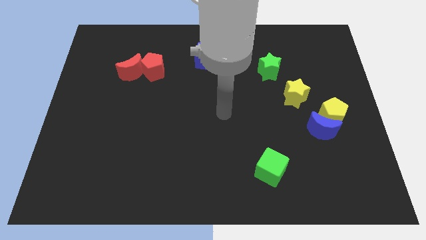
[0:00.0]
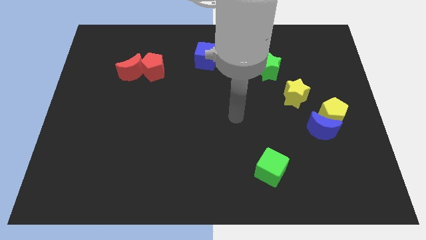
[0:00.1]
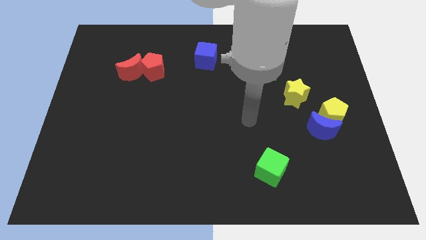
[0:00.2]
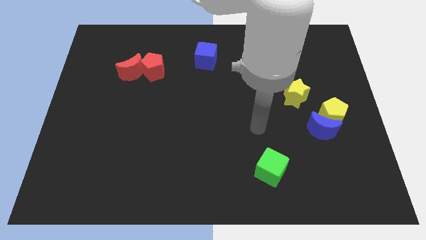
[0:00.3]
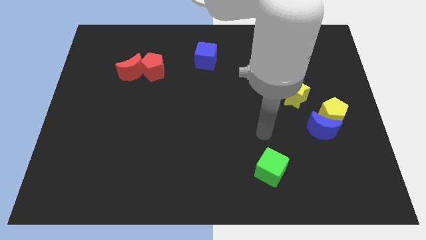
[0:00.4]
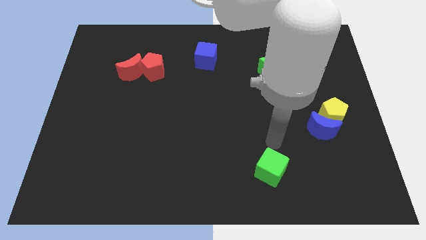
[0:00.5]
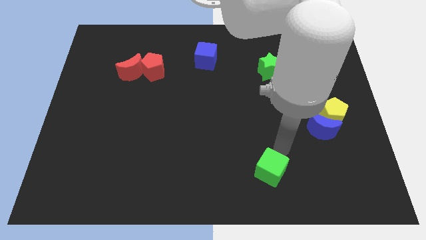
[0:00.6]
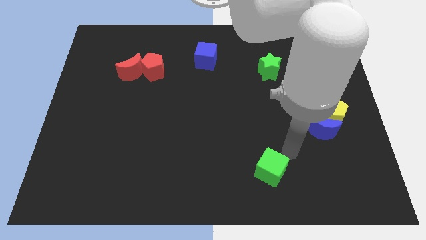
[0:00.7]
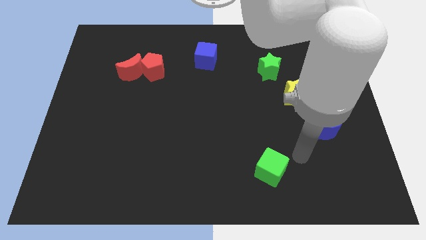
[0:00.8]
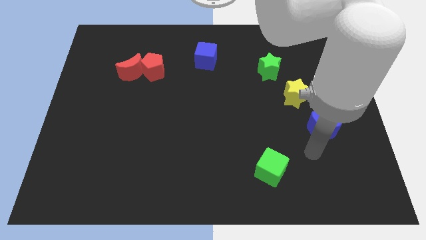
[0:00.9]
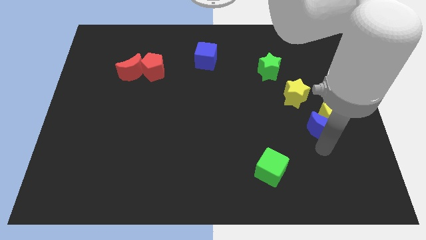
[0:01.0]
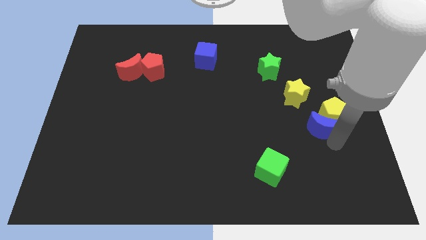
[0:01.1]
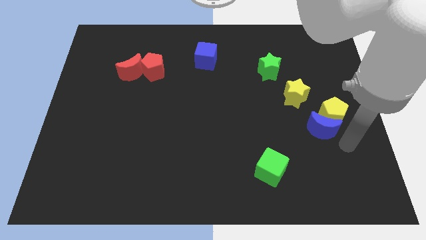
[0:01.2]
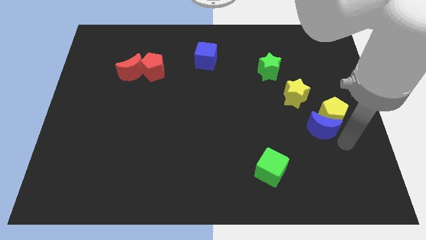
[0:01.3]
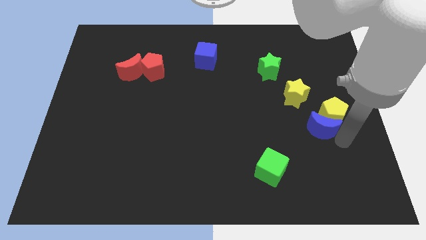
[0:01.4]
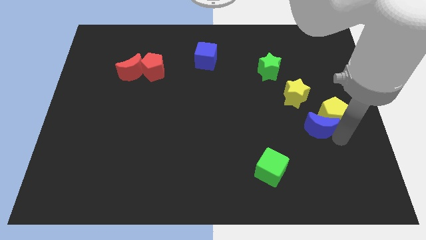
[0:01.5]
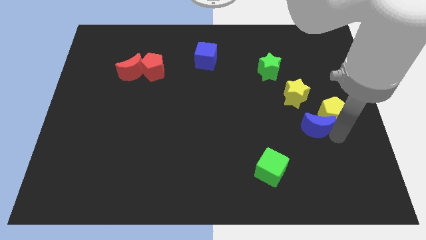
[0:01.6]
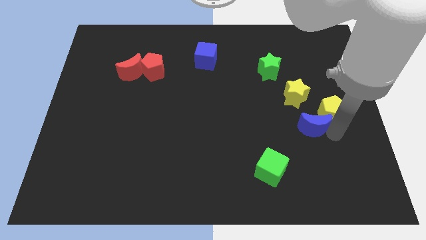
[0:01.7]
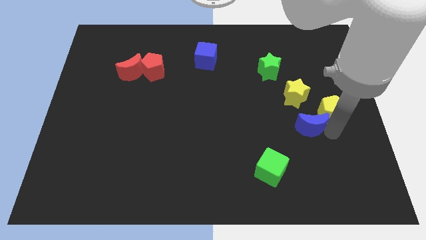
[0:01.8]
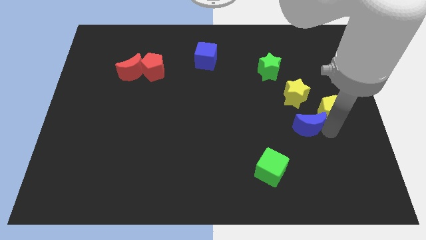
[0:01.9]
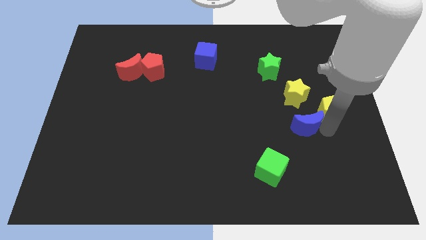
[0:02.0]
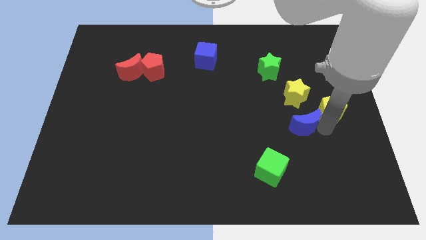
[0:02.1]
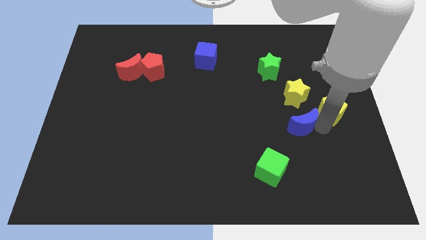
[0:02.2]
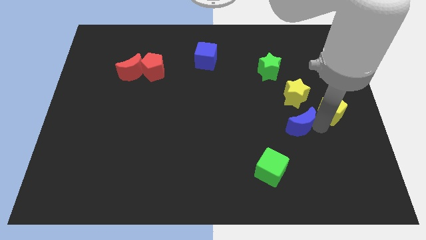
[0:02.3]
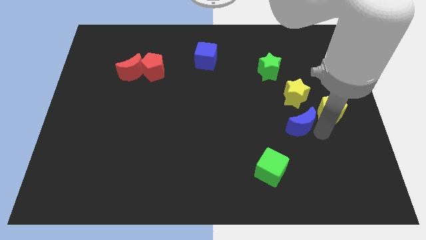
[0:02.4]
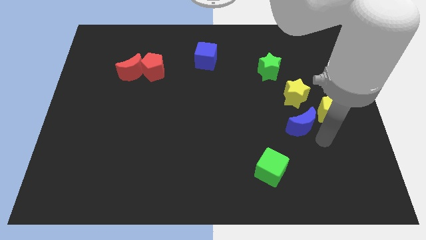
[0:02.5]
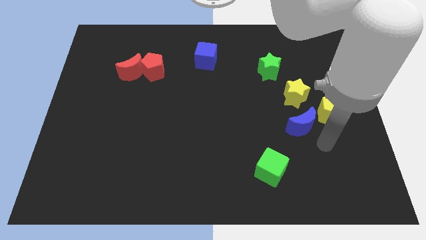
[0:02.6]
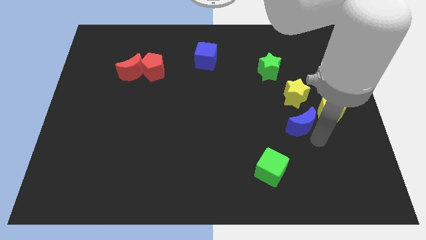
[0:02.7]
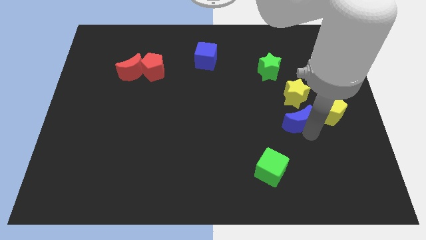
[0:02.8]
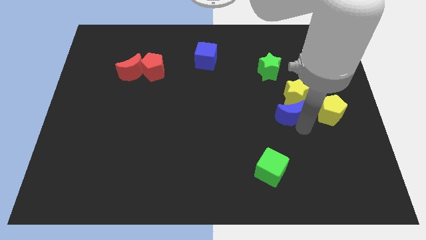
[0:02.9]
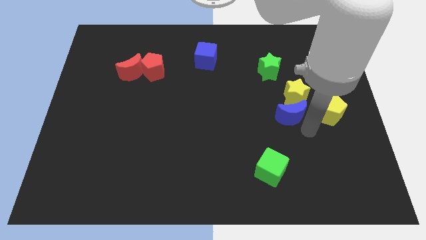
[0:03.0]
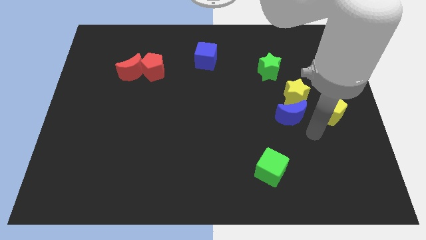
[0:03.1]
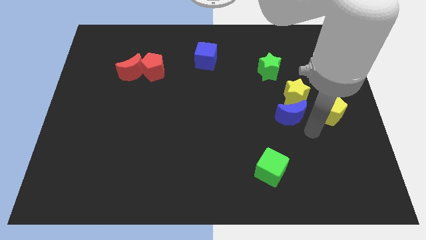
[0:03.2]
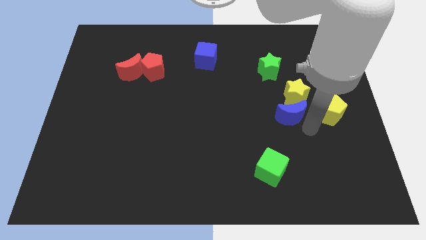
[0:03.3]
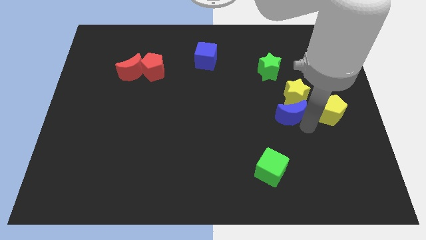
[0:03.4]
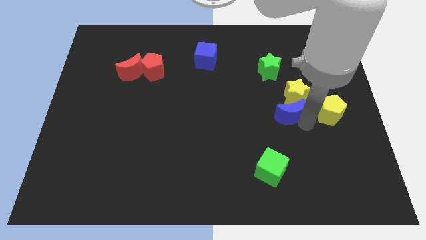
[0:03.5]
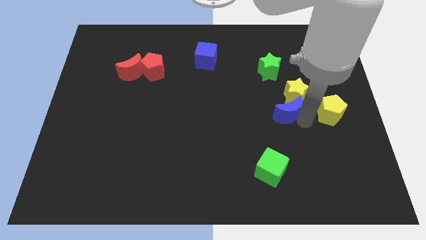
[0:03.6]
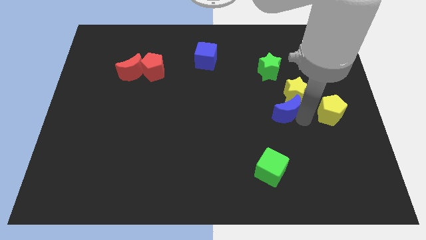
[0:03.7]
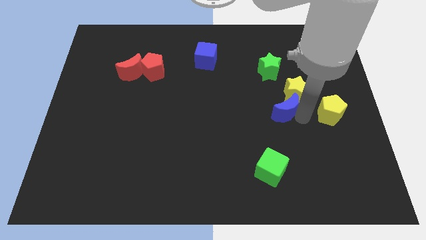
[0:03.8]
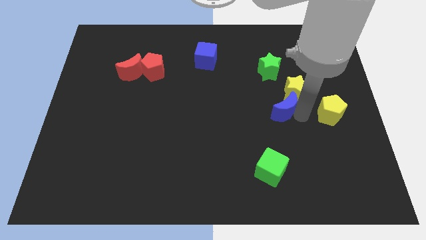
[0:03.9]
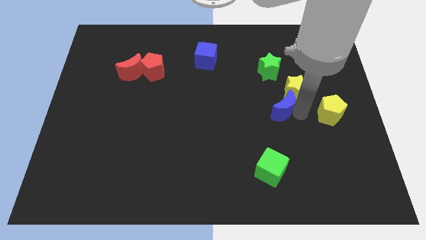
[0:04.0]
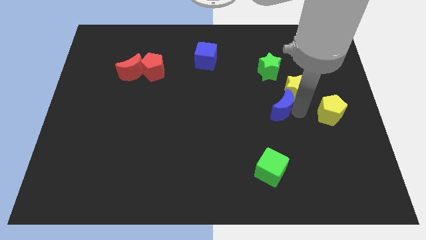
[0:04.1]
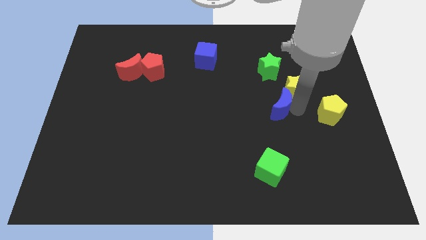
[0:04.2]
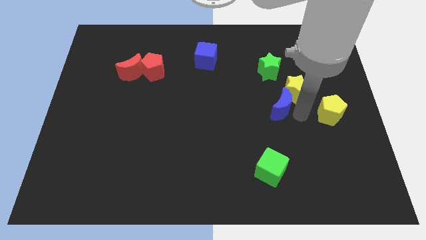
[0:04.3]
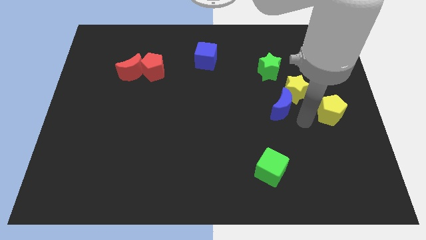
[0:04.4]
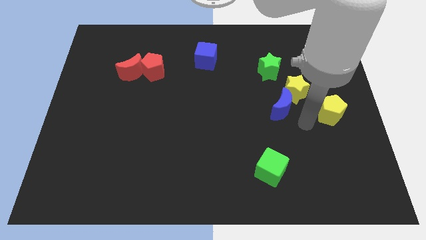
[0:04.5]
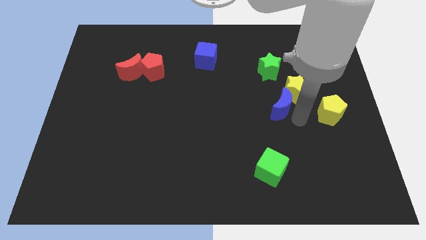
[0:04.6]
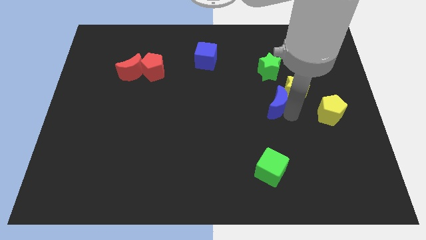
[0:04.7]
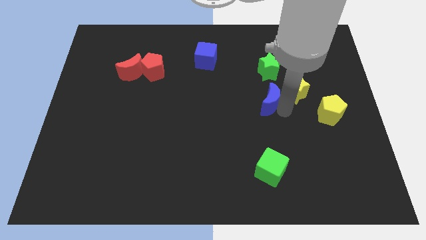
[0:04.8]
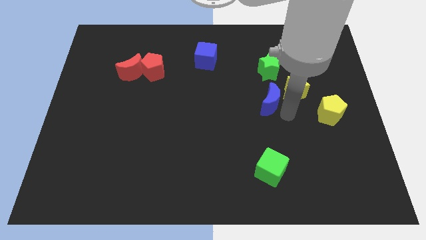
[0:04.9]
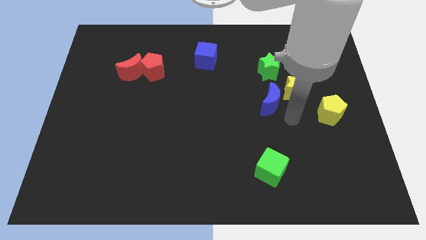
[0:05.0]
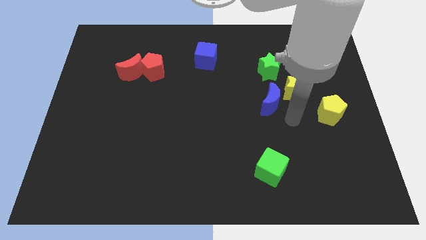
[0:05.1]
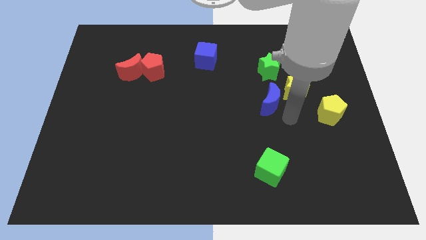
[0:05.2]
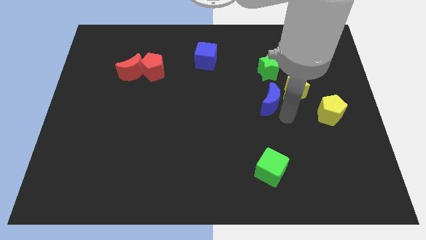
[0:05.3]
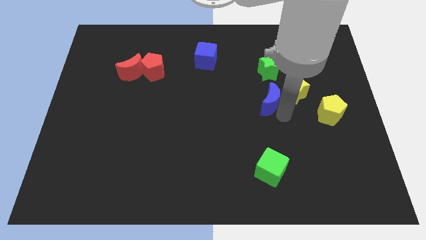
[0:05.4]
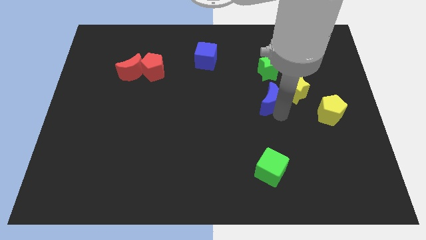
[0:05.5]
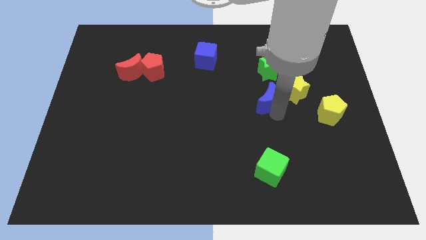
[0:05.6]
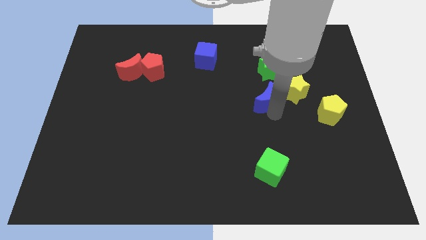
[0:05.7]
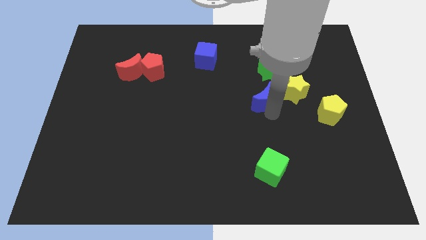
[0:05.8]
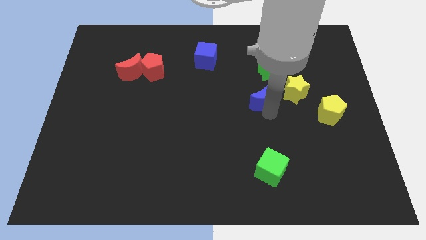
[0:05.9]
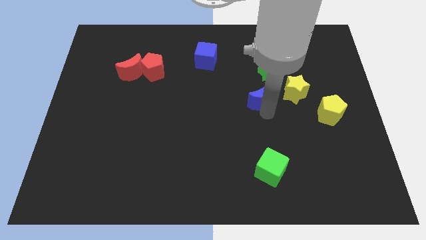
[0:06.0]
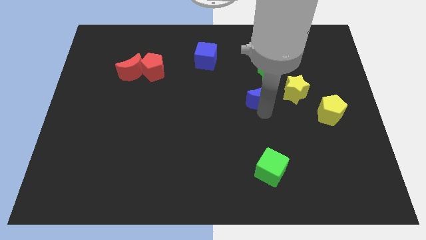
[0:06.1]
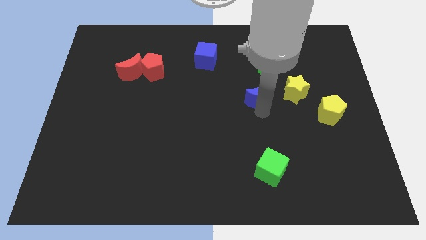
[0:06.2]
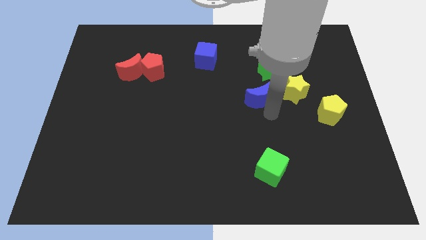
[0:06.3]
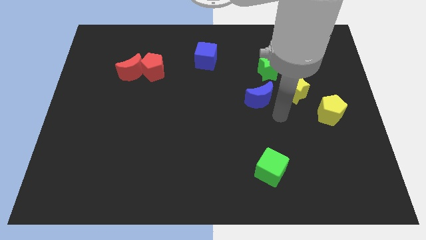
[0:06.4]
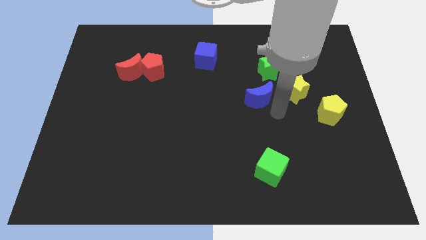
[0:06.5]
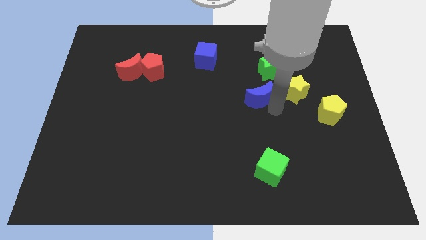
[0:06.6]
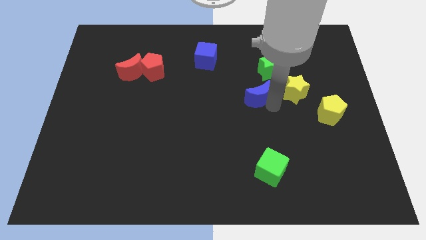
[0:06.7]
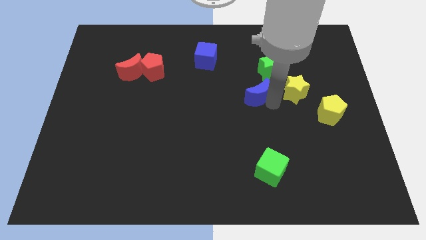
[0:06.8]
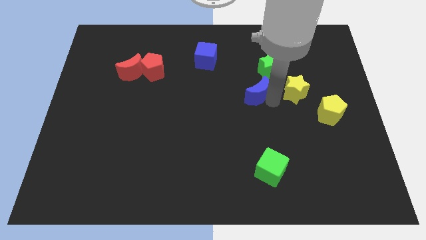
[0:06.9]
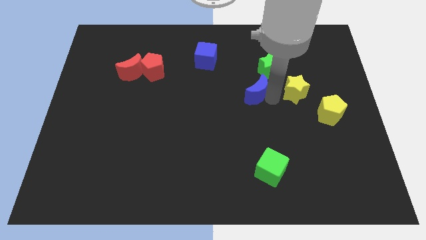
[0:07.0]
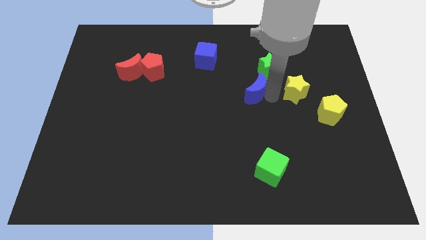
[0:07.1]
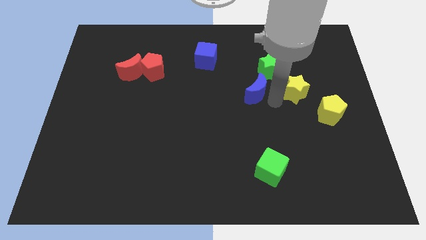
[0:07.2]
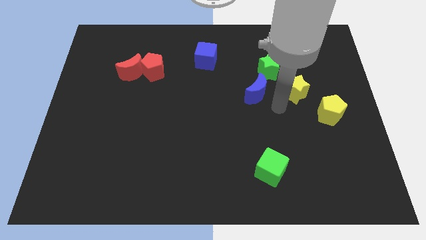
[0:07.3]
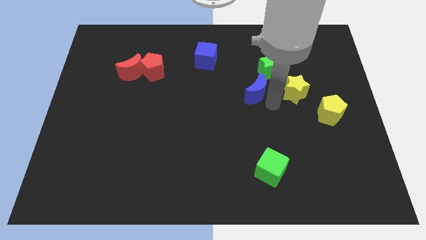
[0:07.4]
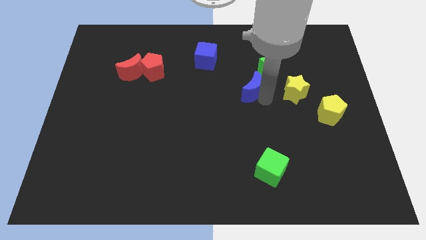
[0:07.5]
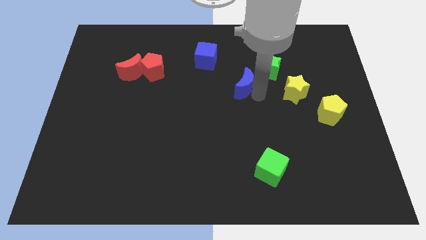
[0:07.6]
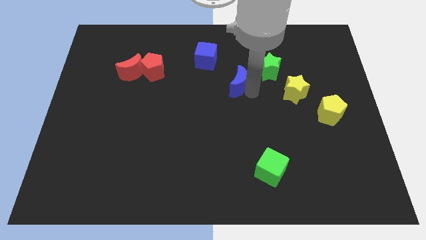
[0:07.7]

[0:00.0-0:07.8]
push the blue moon to the bottom right of the blue cube
